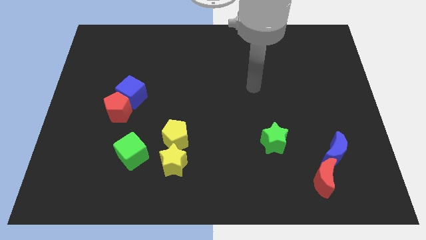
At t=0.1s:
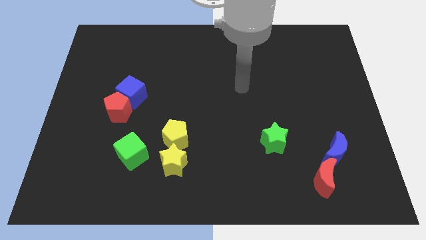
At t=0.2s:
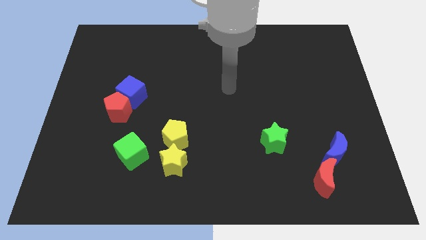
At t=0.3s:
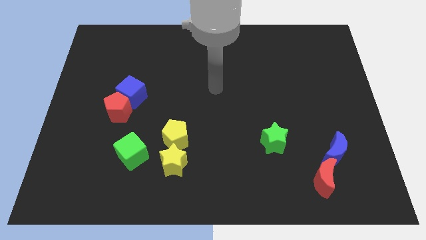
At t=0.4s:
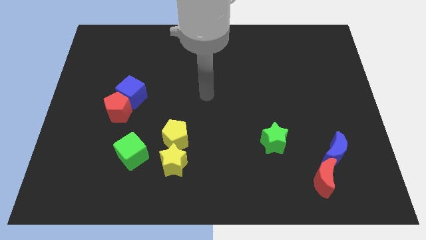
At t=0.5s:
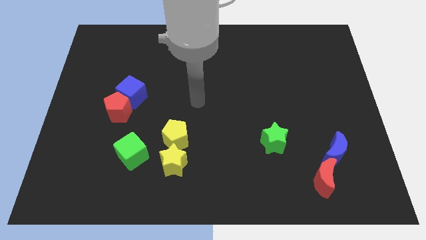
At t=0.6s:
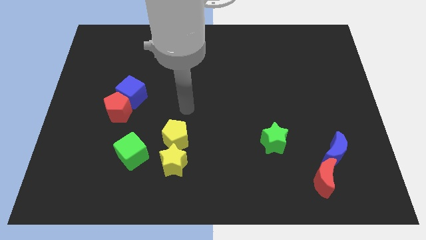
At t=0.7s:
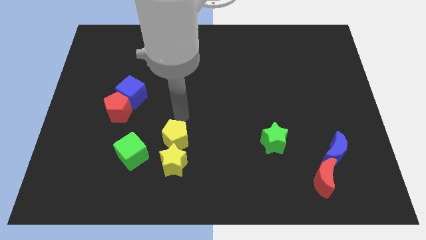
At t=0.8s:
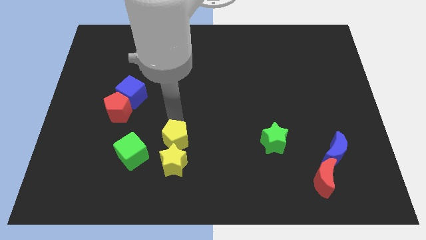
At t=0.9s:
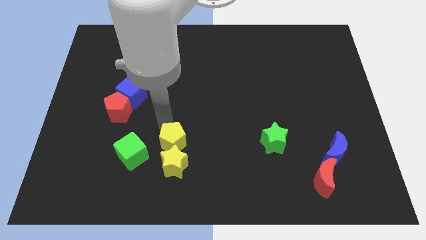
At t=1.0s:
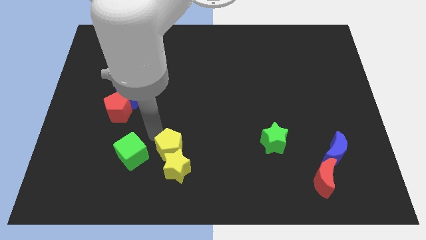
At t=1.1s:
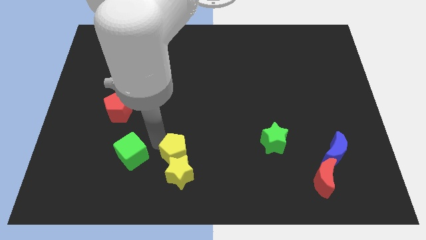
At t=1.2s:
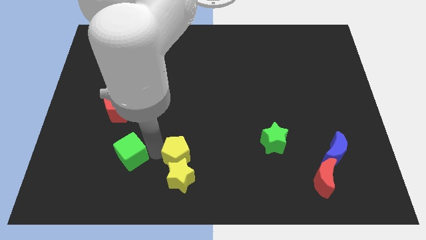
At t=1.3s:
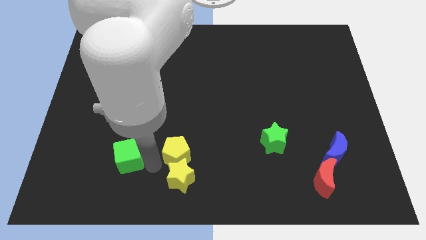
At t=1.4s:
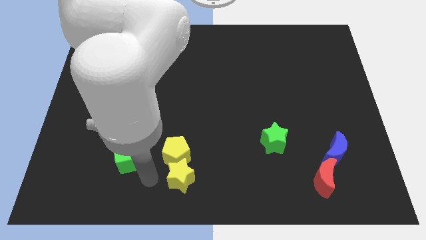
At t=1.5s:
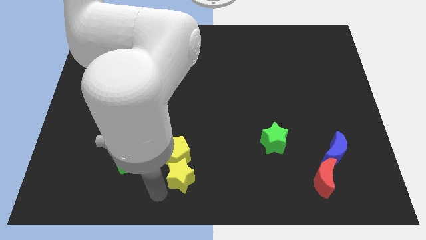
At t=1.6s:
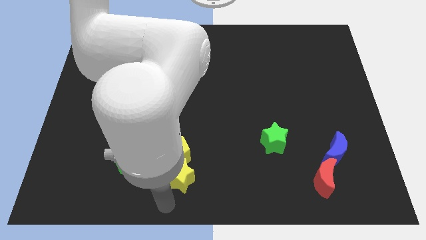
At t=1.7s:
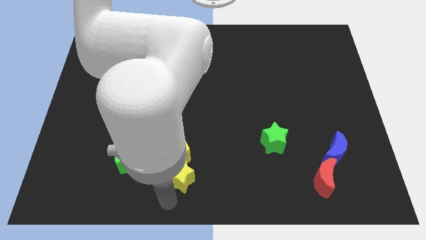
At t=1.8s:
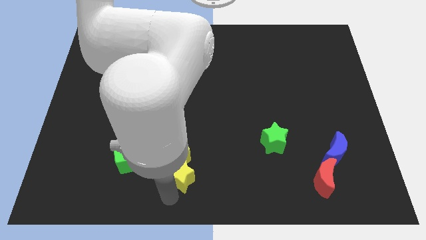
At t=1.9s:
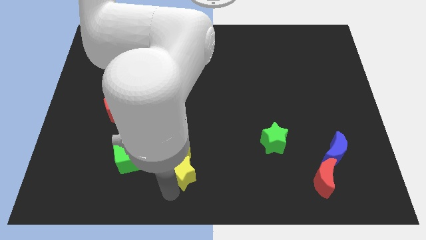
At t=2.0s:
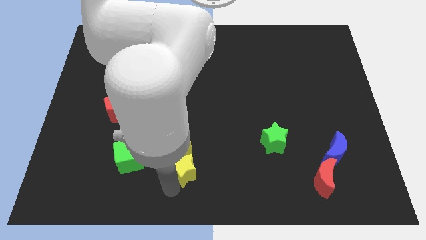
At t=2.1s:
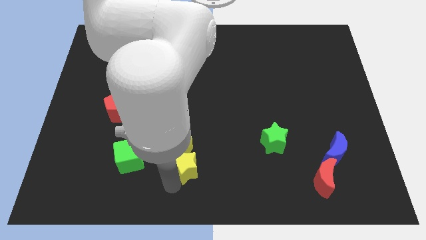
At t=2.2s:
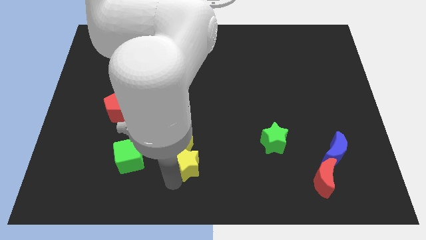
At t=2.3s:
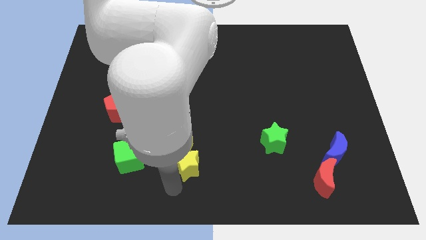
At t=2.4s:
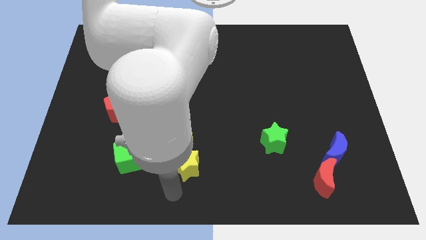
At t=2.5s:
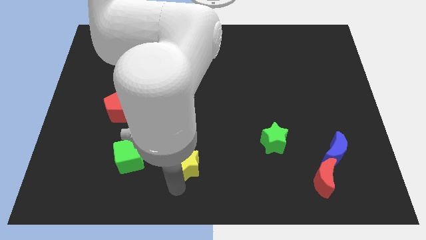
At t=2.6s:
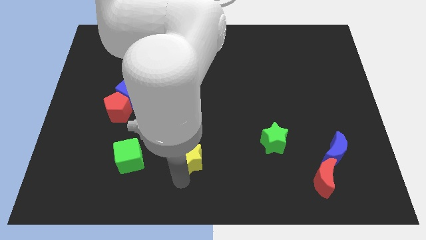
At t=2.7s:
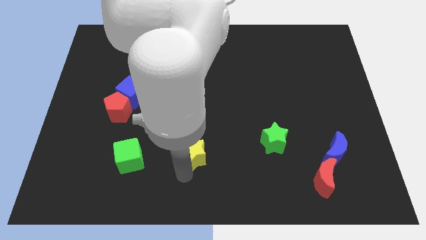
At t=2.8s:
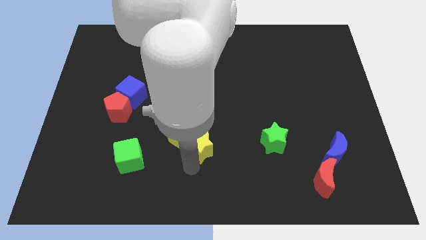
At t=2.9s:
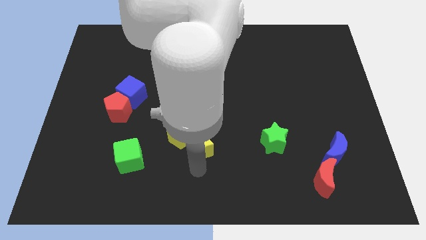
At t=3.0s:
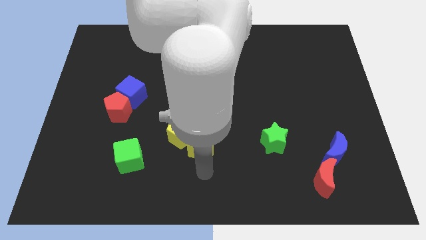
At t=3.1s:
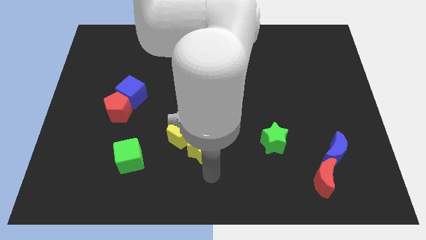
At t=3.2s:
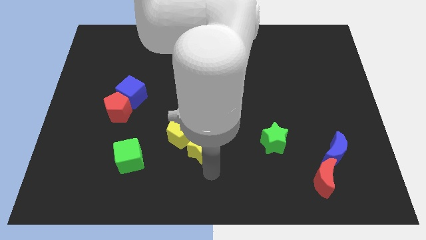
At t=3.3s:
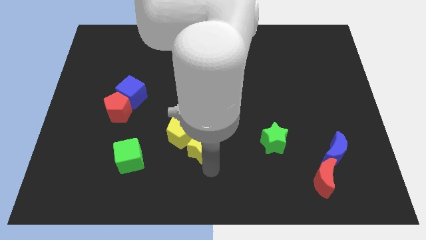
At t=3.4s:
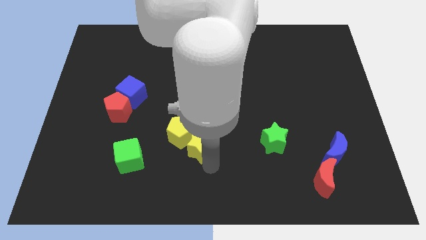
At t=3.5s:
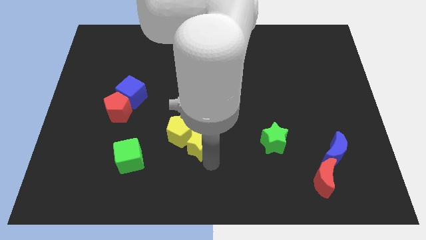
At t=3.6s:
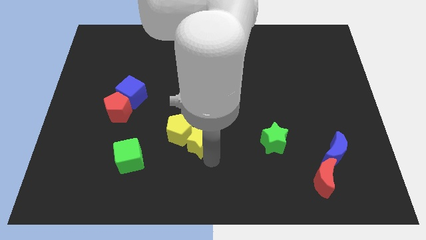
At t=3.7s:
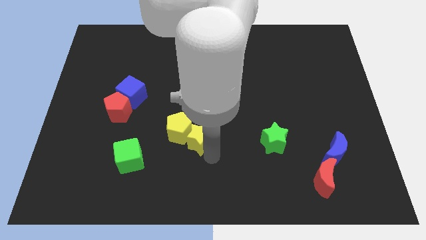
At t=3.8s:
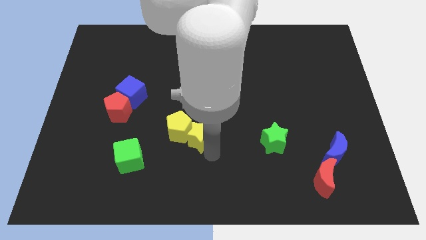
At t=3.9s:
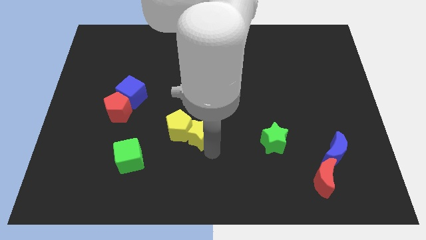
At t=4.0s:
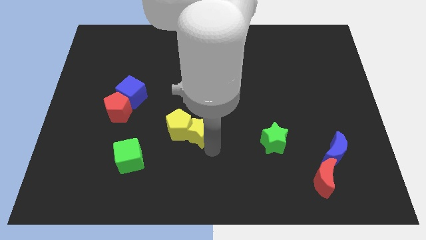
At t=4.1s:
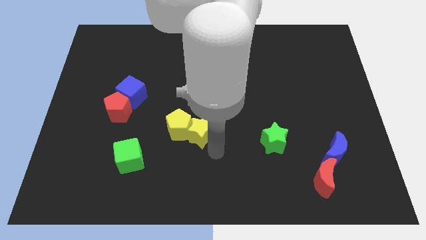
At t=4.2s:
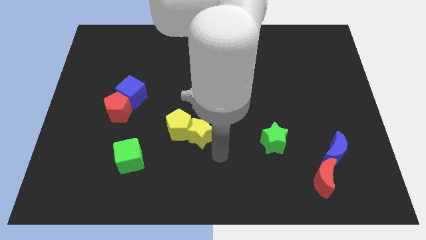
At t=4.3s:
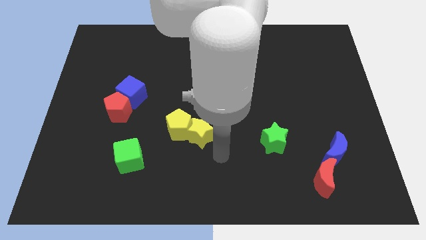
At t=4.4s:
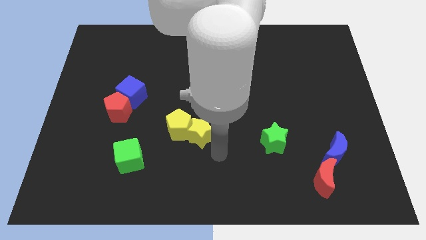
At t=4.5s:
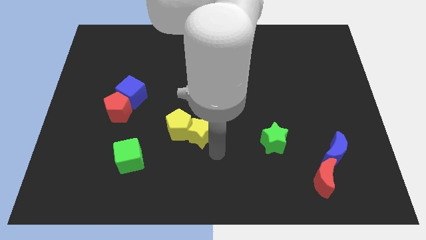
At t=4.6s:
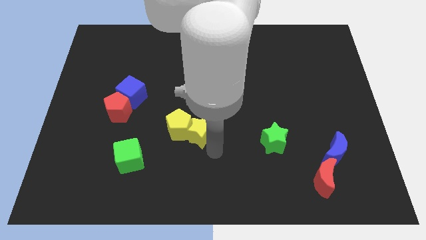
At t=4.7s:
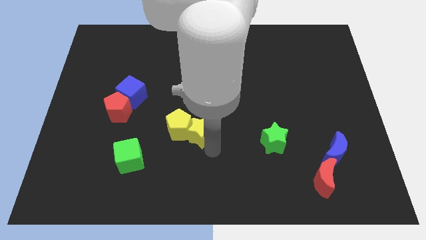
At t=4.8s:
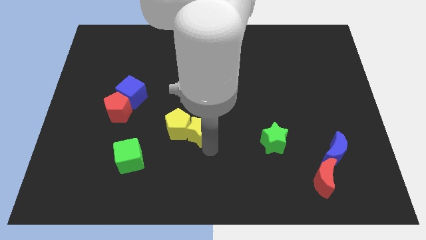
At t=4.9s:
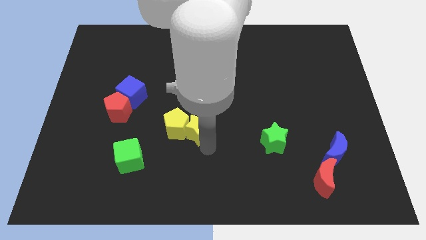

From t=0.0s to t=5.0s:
move the yellow star upwards a bit

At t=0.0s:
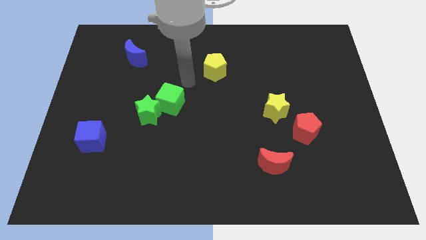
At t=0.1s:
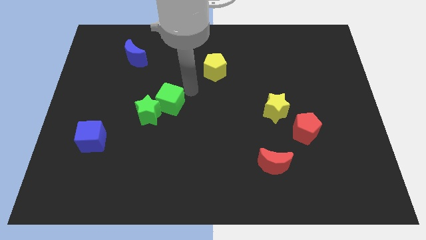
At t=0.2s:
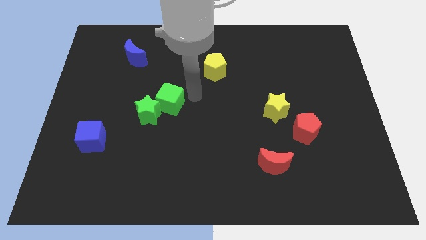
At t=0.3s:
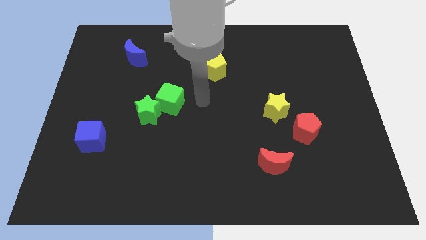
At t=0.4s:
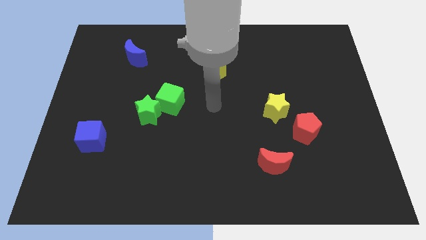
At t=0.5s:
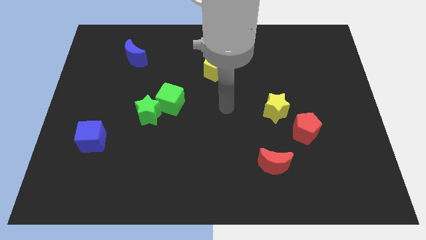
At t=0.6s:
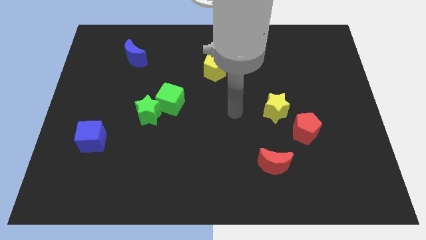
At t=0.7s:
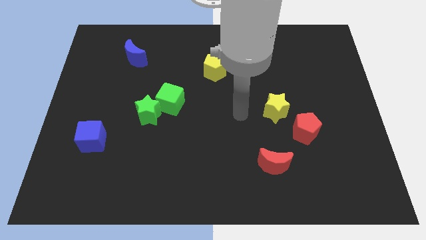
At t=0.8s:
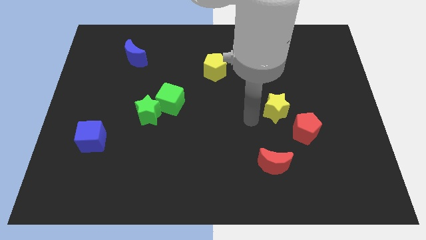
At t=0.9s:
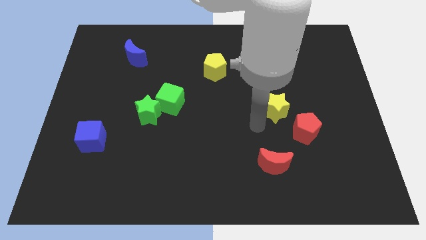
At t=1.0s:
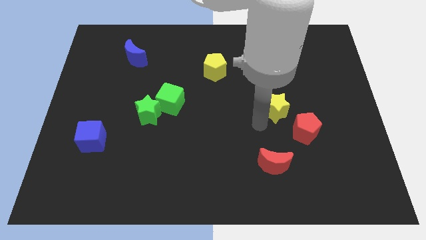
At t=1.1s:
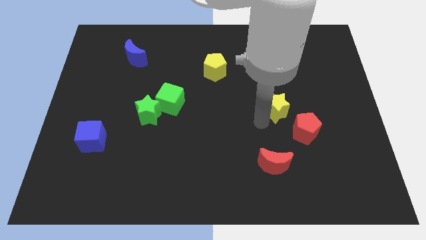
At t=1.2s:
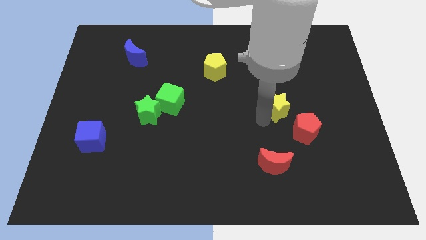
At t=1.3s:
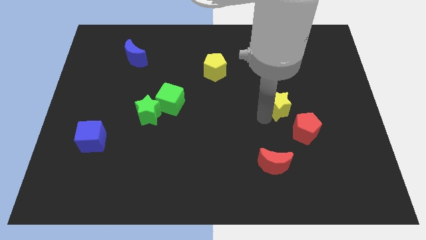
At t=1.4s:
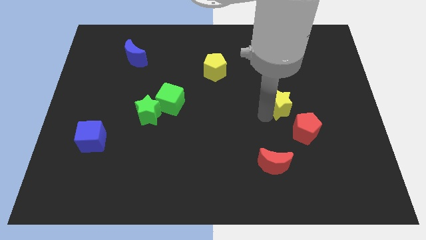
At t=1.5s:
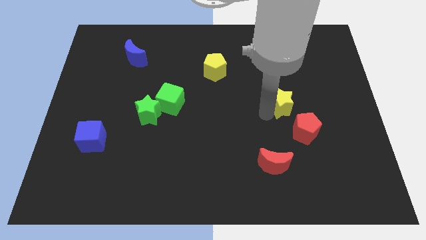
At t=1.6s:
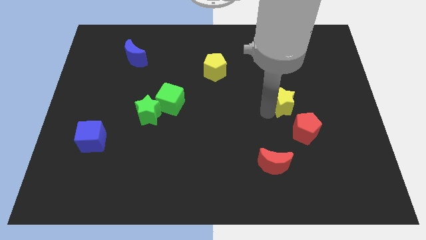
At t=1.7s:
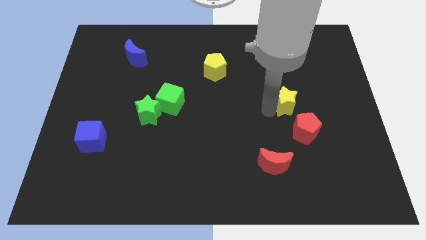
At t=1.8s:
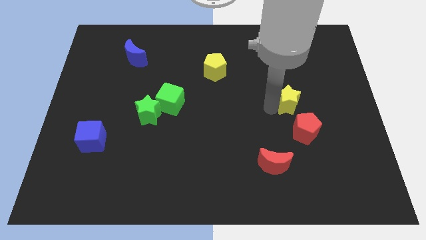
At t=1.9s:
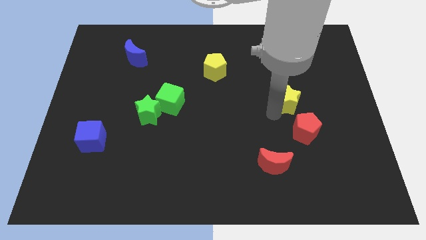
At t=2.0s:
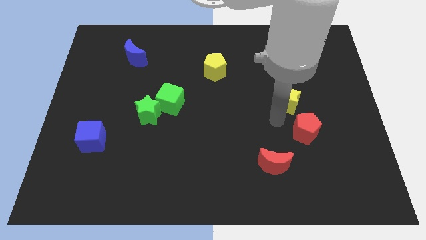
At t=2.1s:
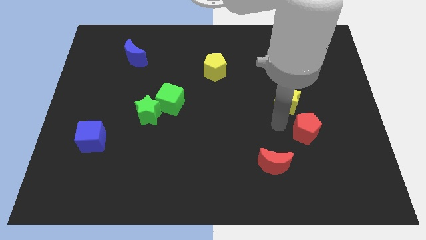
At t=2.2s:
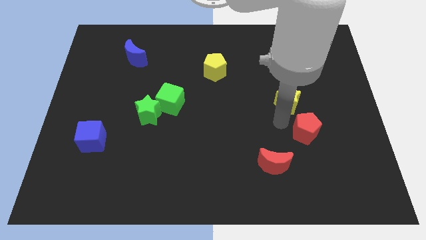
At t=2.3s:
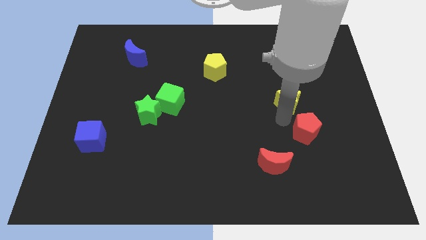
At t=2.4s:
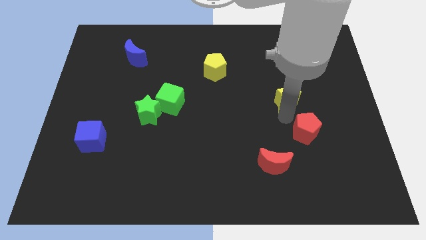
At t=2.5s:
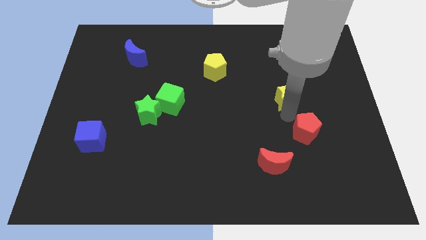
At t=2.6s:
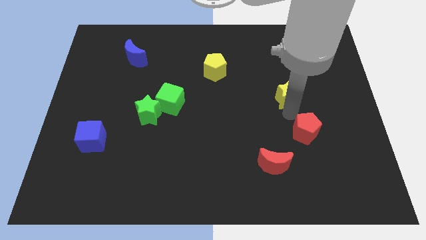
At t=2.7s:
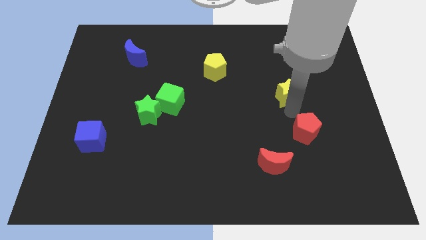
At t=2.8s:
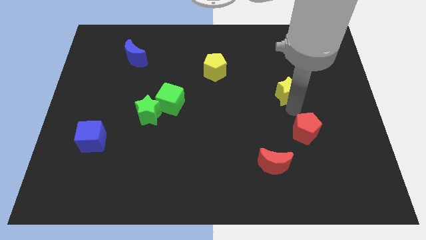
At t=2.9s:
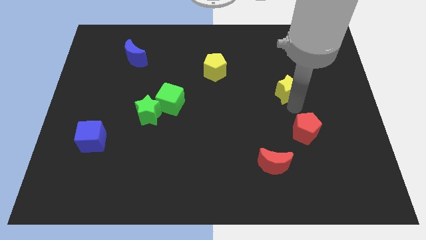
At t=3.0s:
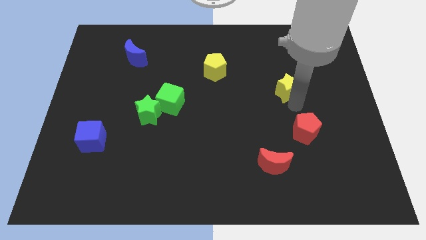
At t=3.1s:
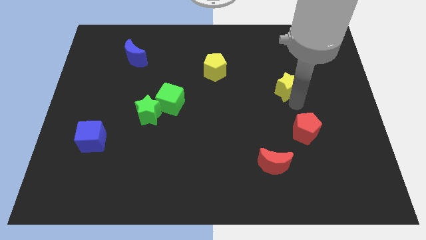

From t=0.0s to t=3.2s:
push the yellow star a little upwards and then right
